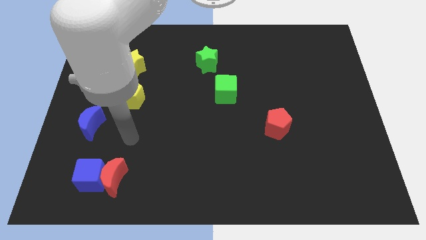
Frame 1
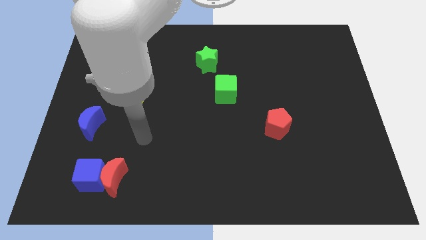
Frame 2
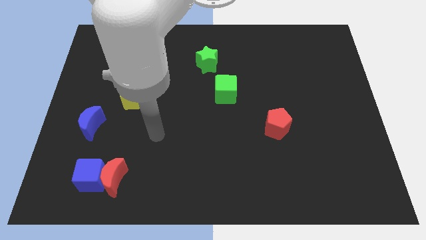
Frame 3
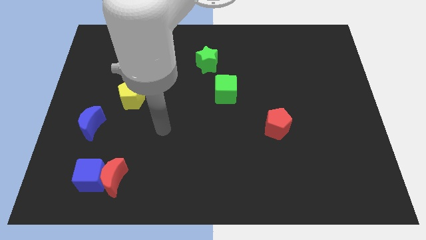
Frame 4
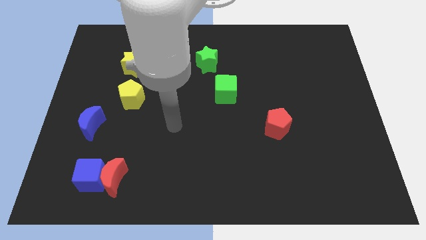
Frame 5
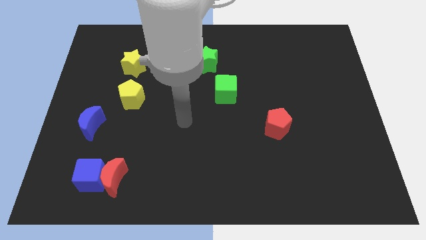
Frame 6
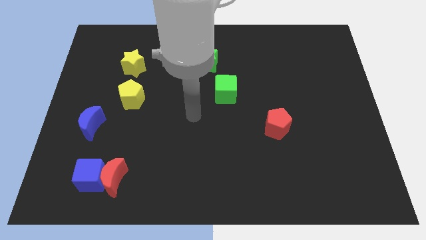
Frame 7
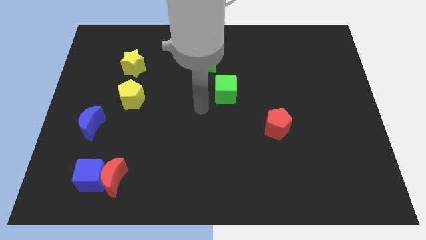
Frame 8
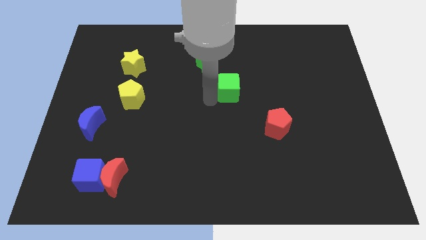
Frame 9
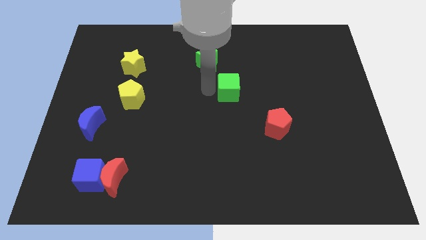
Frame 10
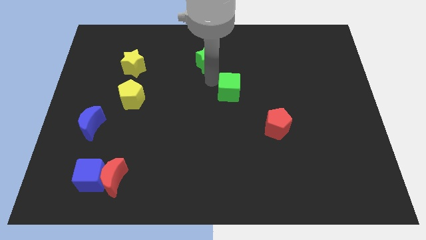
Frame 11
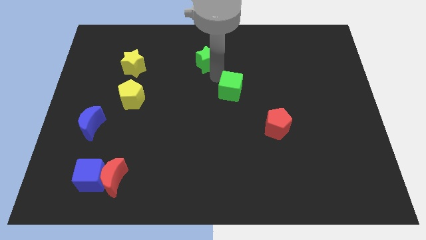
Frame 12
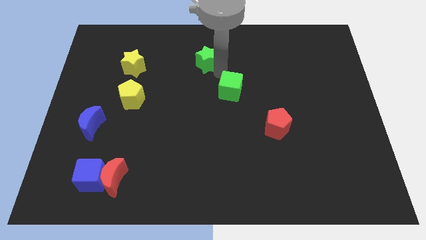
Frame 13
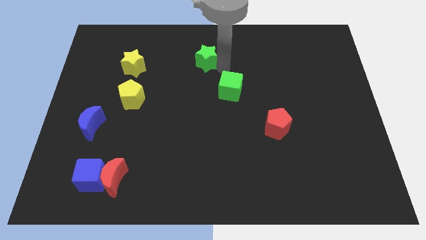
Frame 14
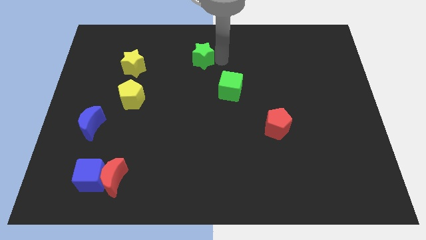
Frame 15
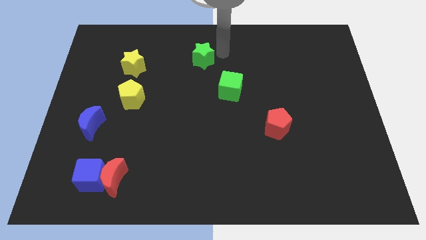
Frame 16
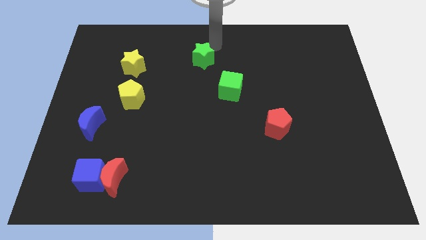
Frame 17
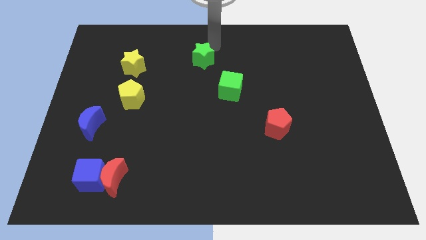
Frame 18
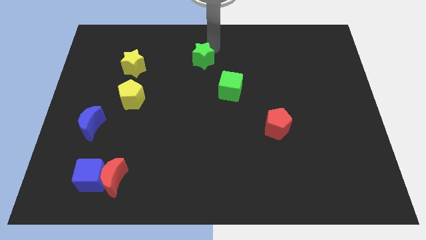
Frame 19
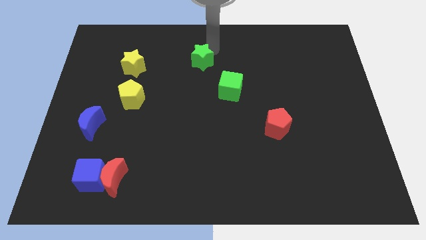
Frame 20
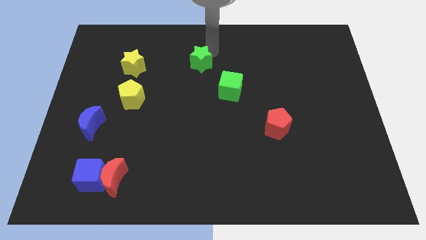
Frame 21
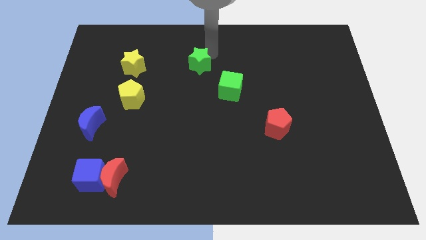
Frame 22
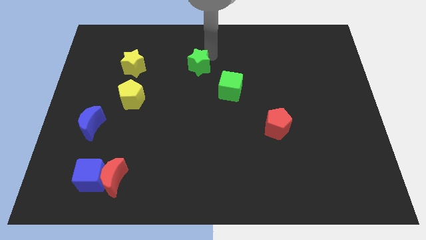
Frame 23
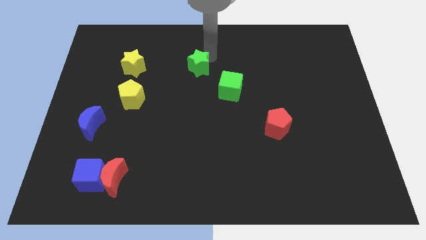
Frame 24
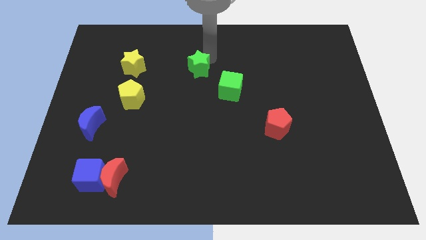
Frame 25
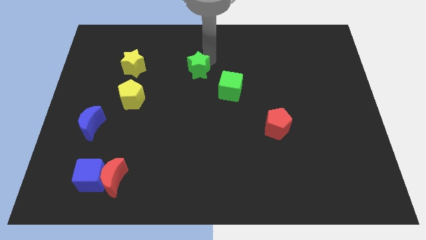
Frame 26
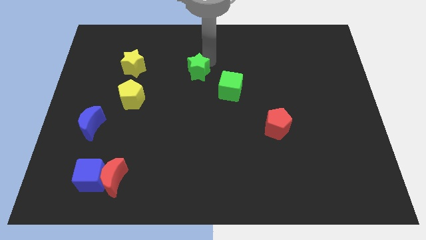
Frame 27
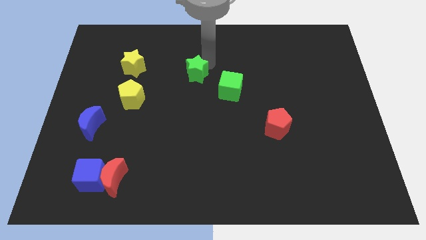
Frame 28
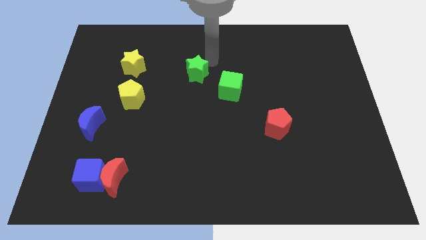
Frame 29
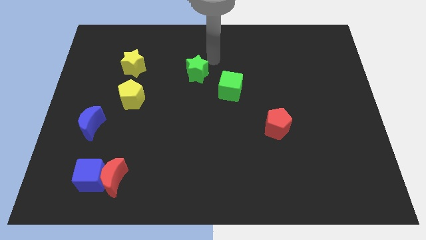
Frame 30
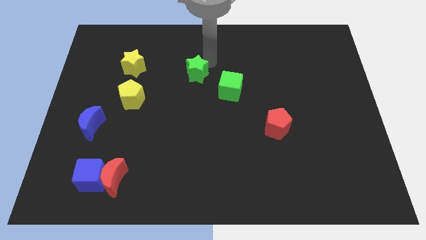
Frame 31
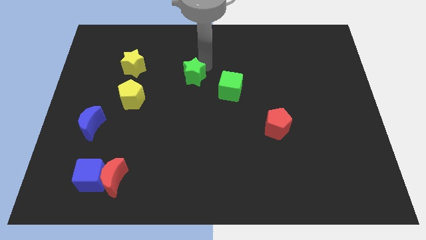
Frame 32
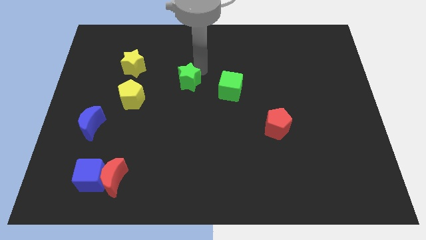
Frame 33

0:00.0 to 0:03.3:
slide the green star down and then to the left somewhat

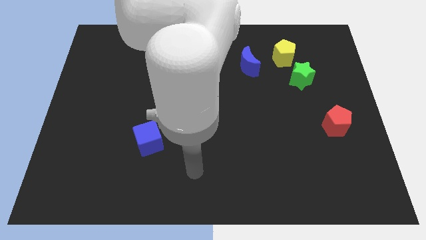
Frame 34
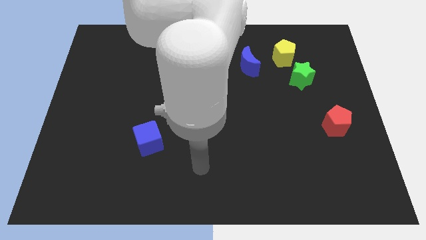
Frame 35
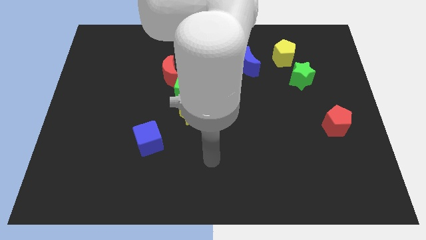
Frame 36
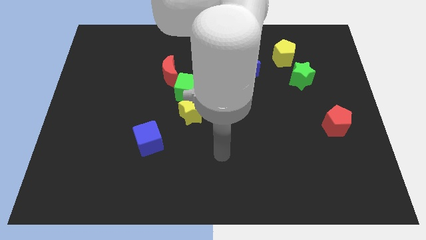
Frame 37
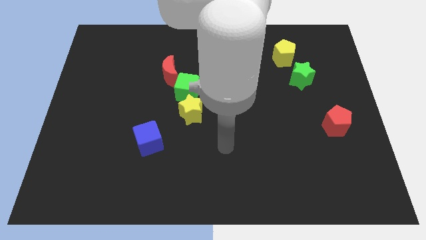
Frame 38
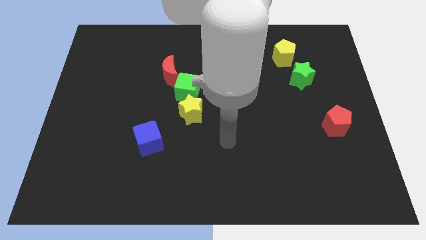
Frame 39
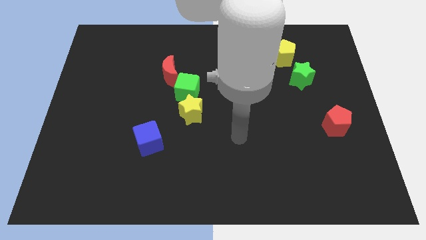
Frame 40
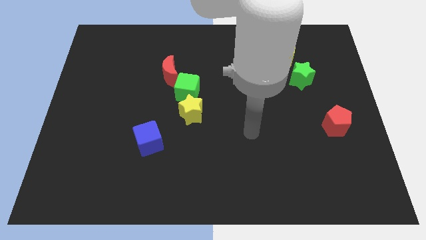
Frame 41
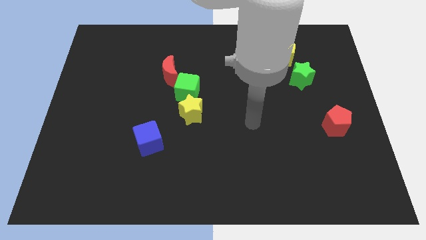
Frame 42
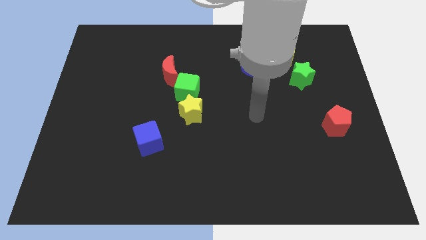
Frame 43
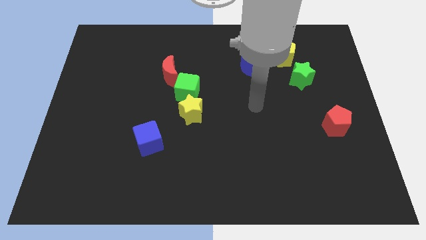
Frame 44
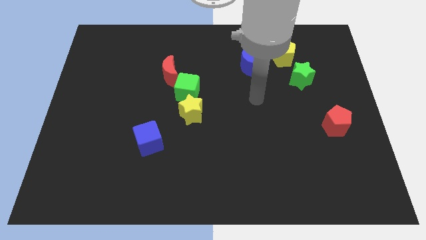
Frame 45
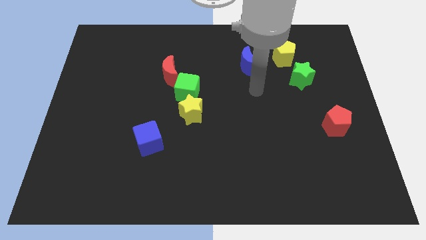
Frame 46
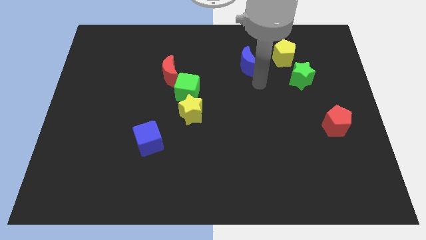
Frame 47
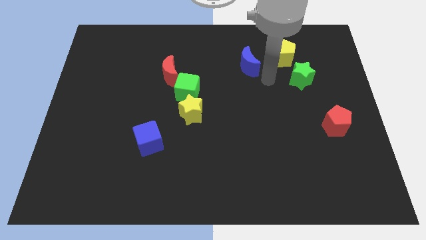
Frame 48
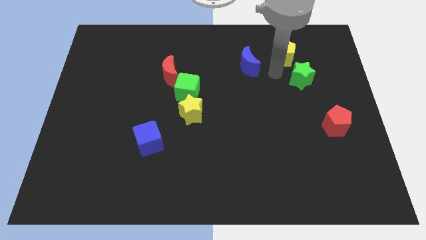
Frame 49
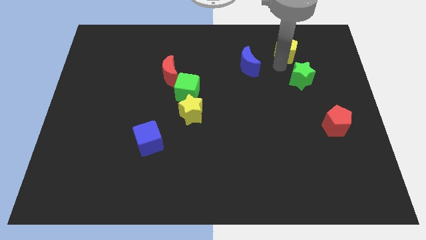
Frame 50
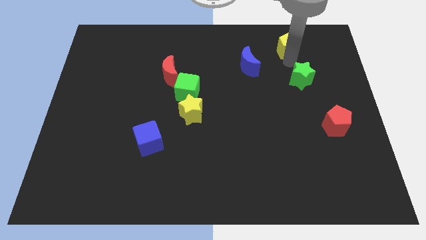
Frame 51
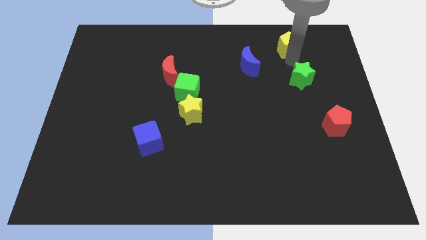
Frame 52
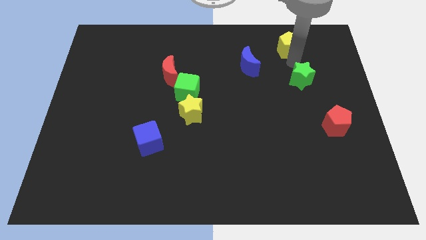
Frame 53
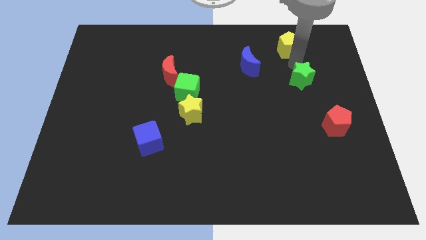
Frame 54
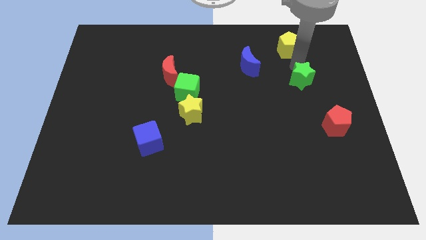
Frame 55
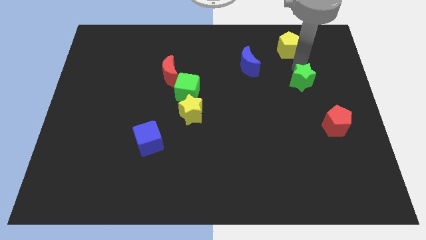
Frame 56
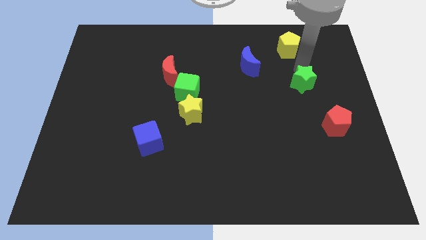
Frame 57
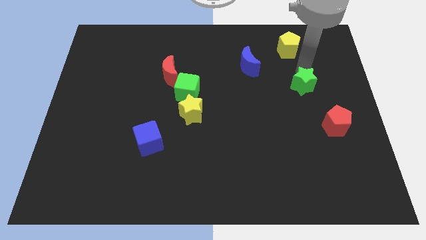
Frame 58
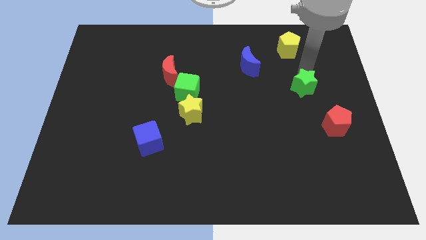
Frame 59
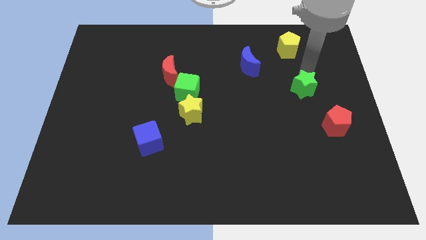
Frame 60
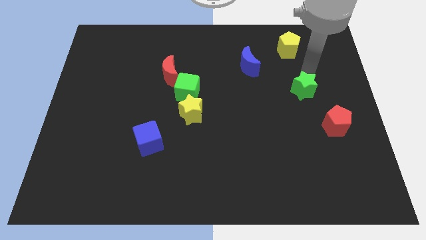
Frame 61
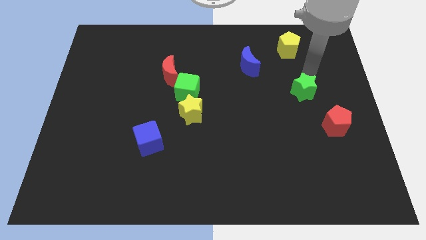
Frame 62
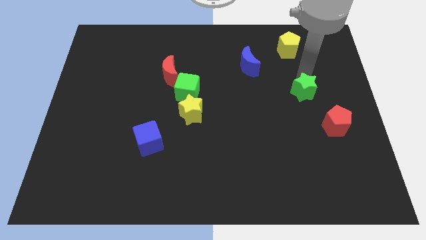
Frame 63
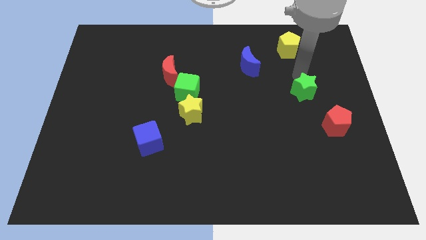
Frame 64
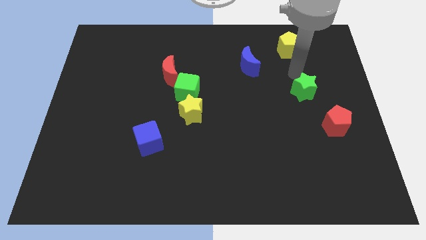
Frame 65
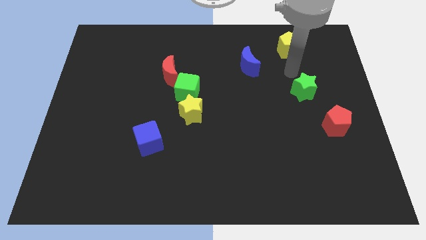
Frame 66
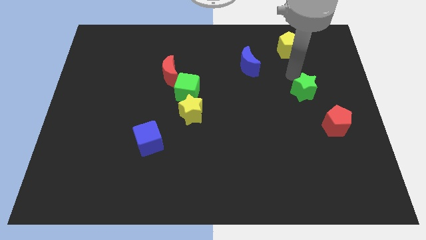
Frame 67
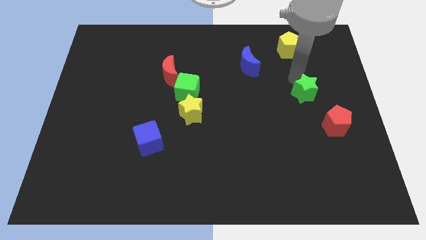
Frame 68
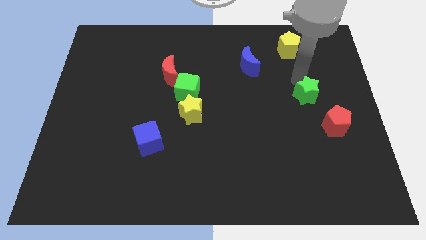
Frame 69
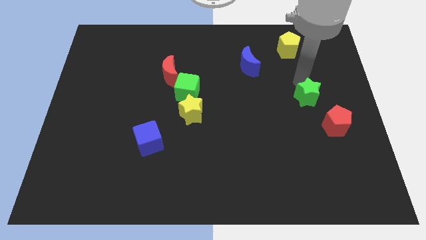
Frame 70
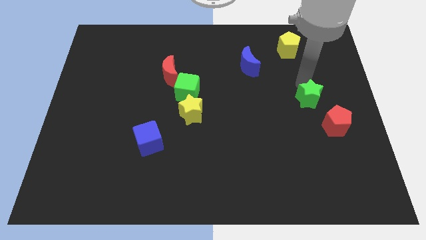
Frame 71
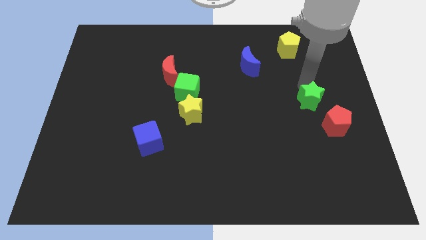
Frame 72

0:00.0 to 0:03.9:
slide the green star downwards a little

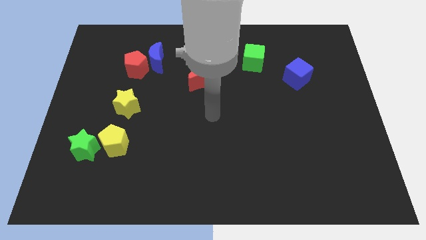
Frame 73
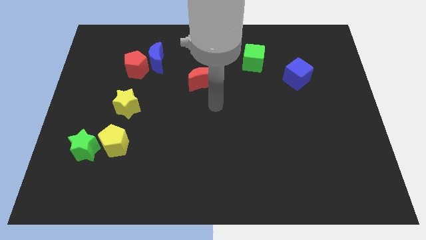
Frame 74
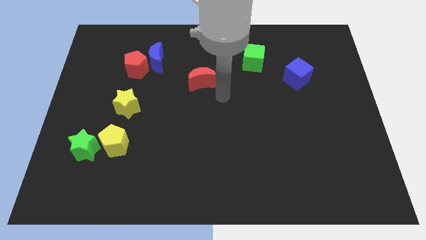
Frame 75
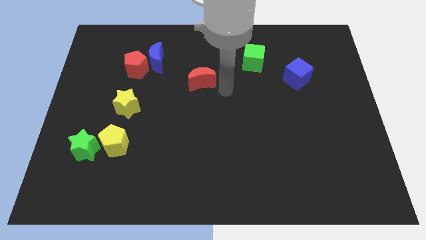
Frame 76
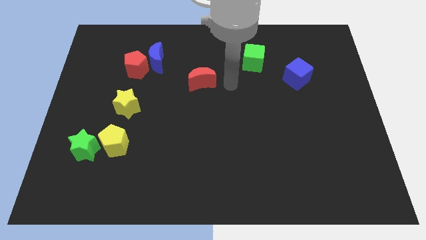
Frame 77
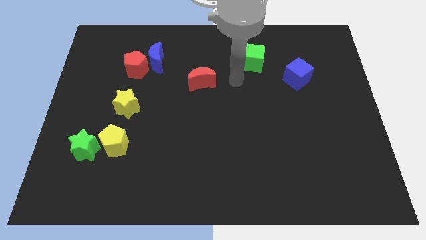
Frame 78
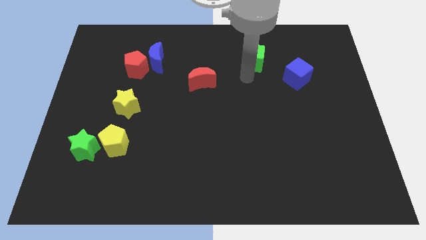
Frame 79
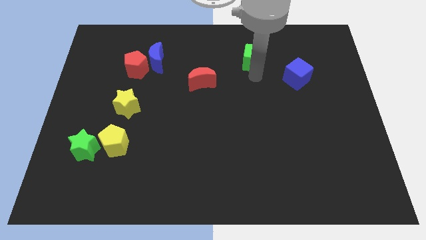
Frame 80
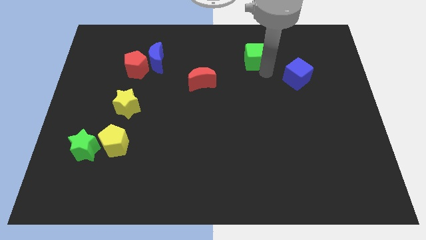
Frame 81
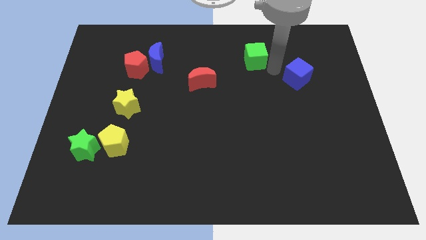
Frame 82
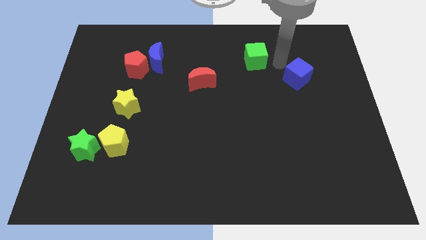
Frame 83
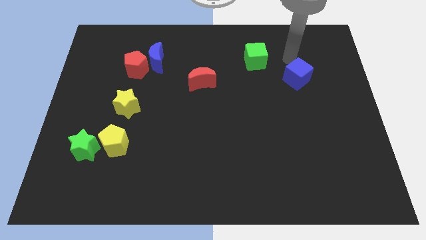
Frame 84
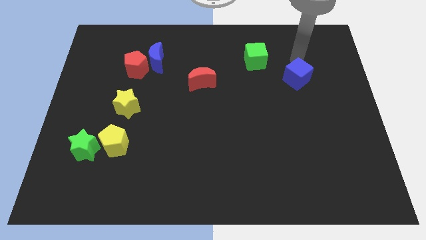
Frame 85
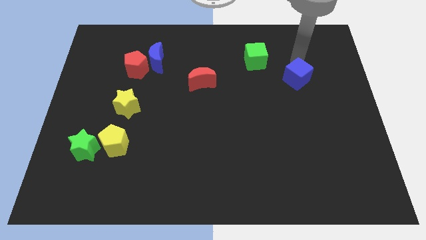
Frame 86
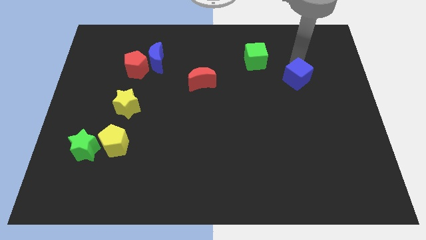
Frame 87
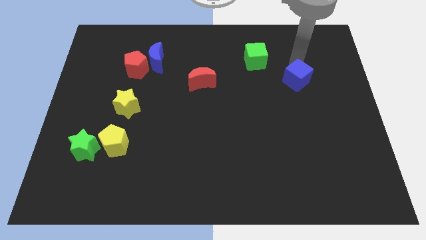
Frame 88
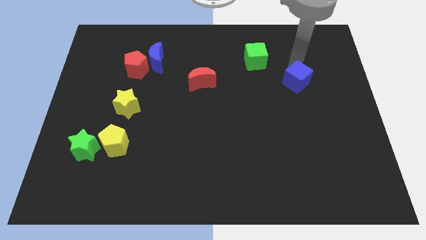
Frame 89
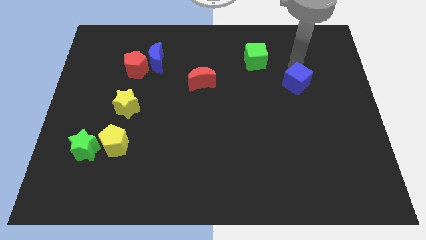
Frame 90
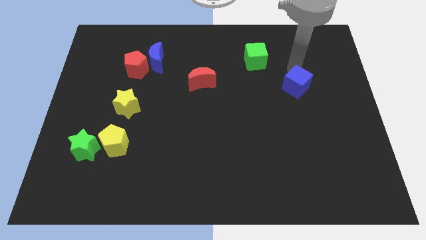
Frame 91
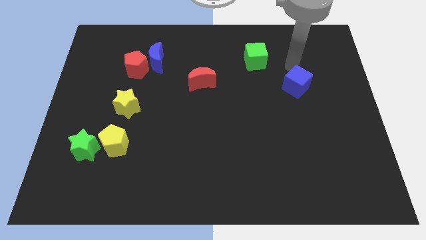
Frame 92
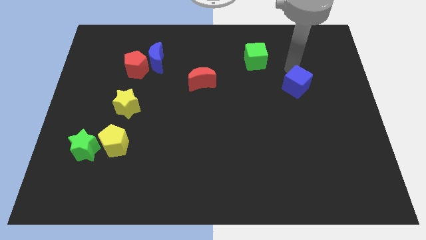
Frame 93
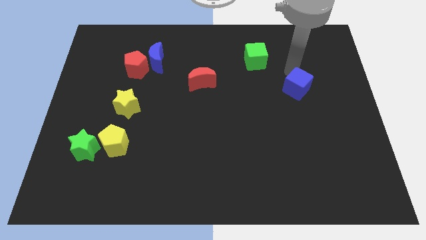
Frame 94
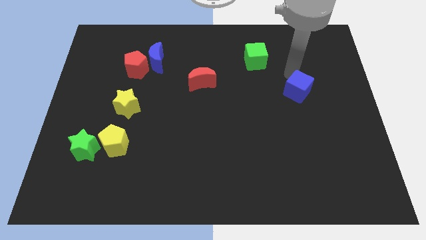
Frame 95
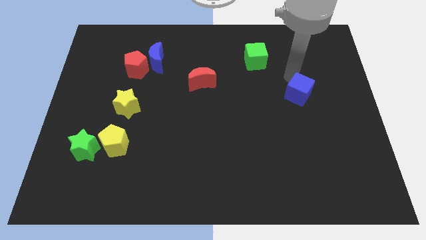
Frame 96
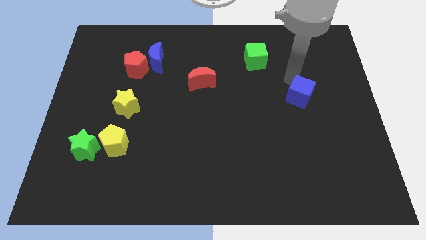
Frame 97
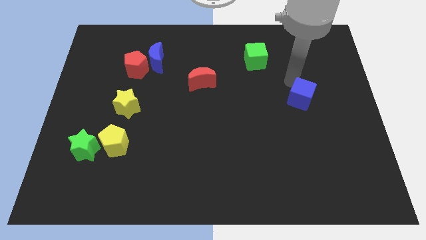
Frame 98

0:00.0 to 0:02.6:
slightly push the blue cube down
